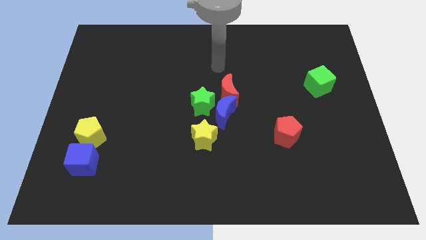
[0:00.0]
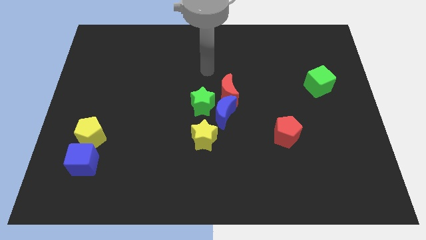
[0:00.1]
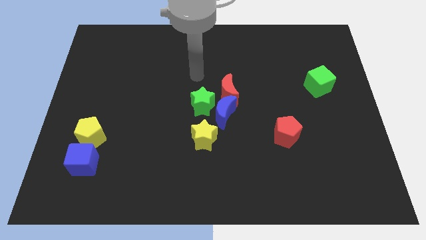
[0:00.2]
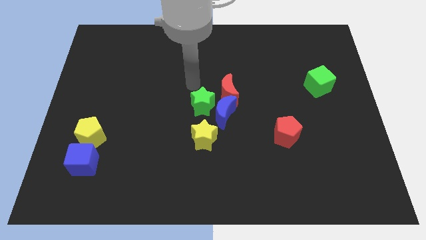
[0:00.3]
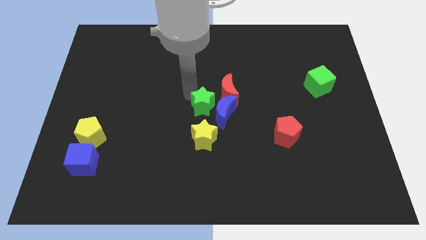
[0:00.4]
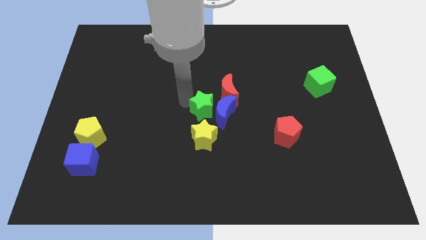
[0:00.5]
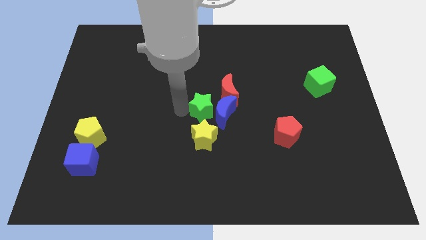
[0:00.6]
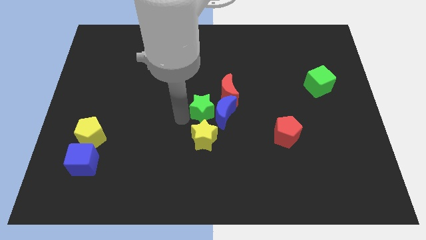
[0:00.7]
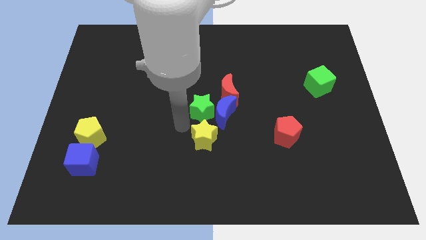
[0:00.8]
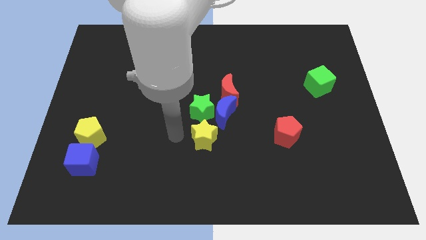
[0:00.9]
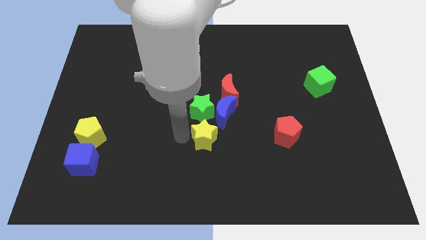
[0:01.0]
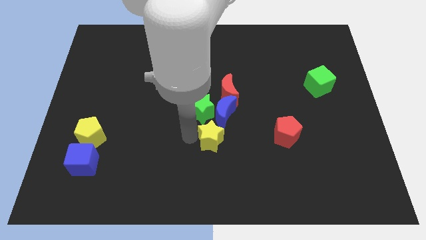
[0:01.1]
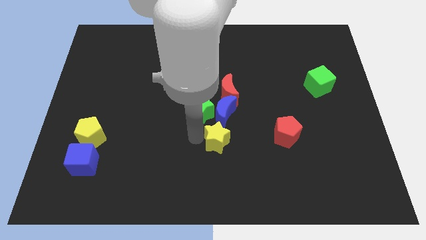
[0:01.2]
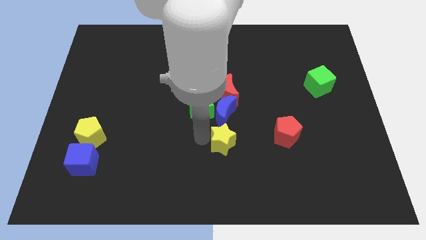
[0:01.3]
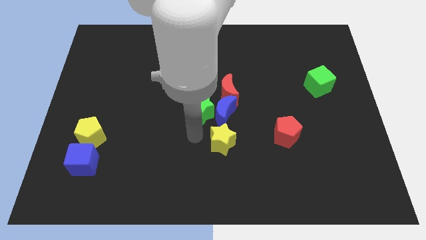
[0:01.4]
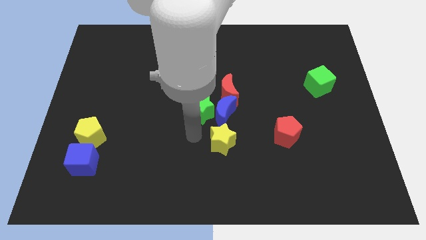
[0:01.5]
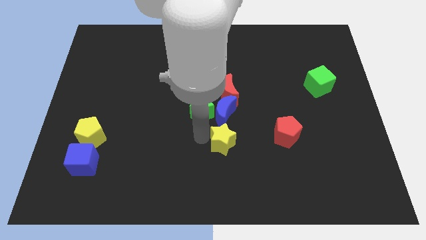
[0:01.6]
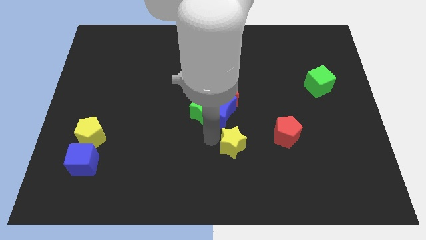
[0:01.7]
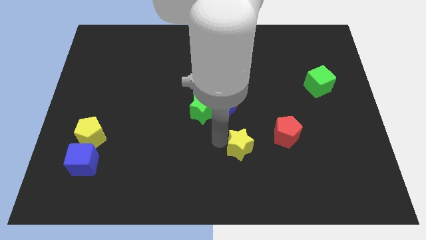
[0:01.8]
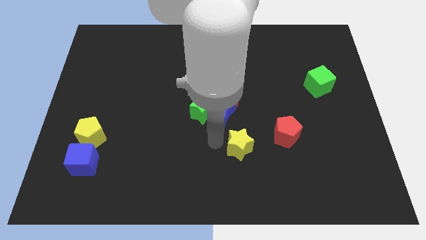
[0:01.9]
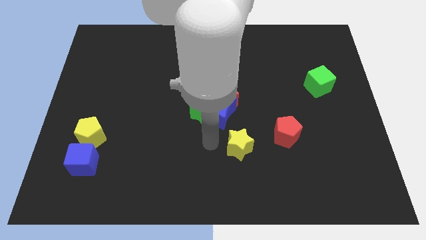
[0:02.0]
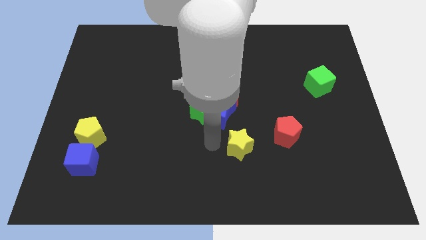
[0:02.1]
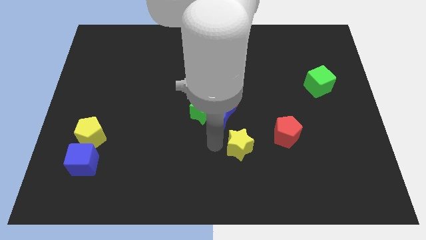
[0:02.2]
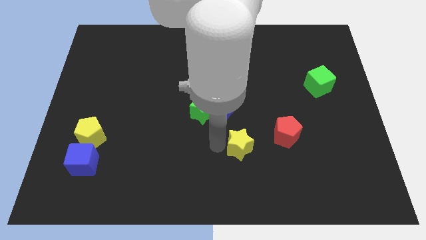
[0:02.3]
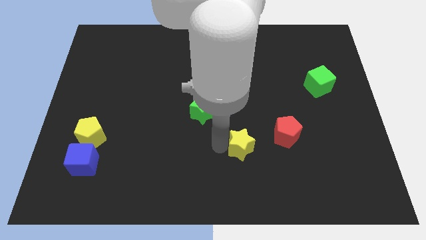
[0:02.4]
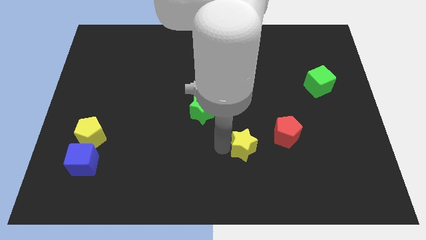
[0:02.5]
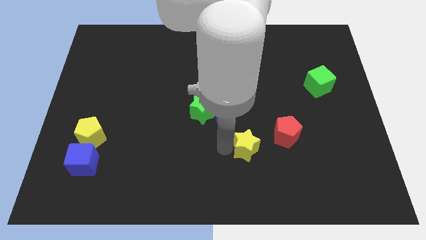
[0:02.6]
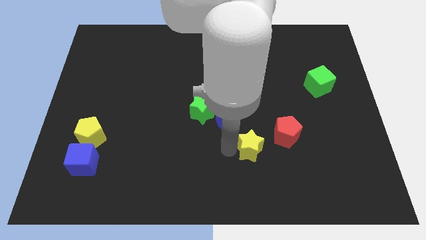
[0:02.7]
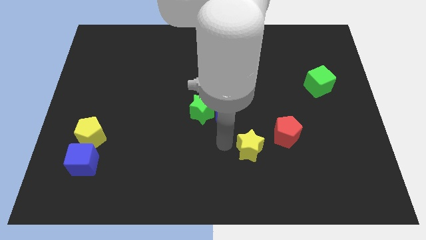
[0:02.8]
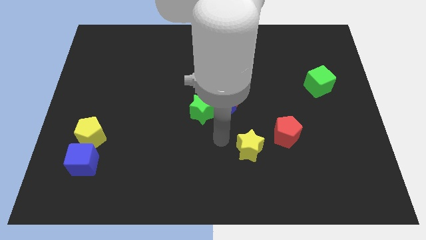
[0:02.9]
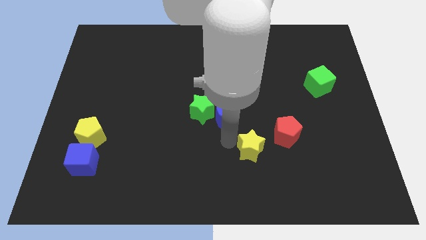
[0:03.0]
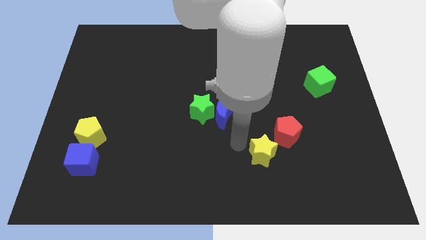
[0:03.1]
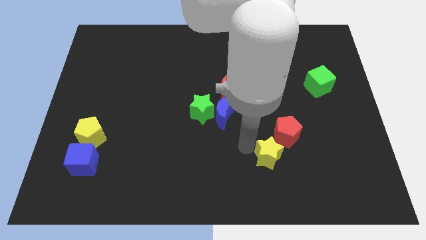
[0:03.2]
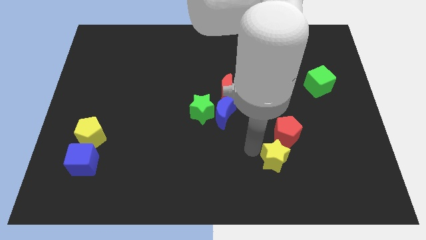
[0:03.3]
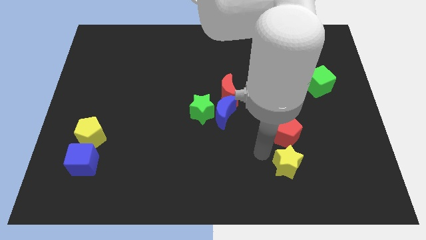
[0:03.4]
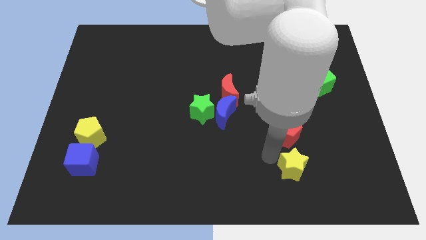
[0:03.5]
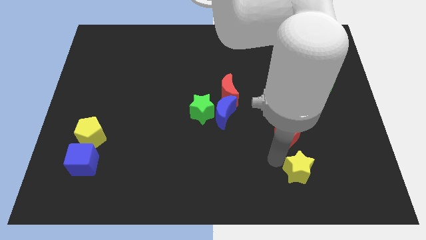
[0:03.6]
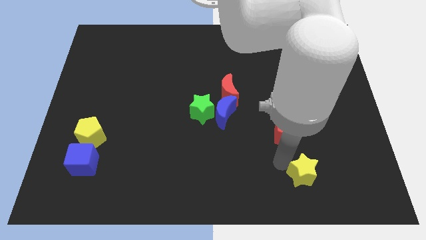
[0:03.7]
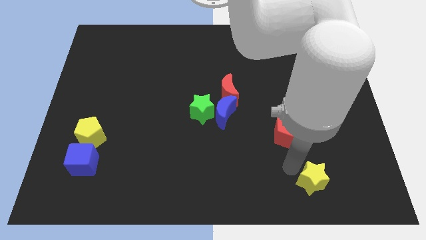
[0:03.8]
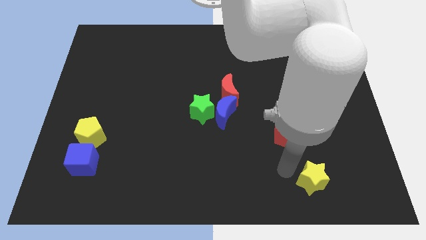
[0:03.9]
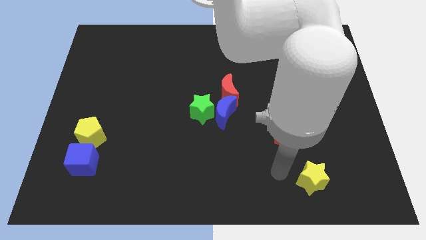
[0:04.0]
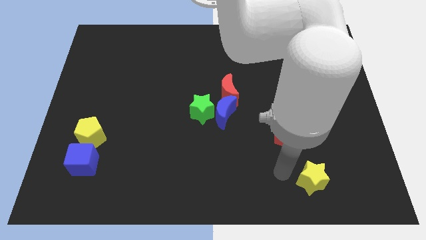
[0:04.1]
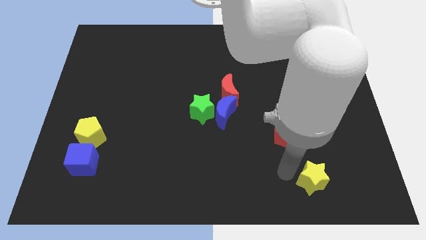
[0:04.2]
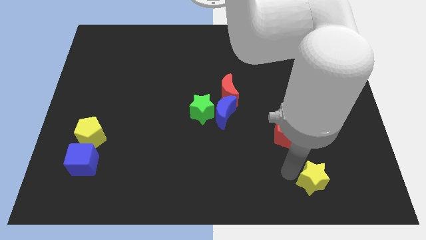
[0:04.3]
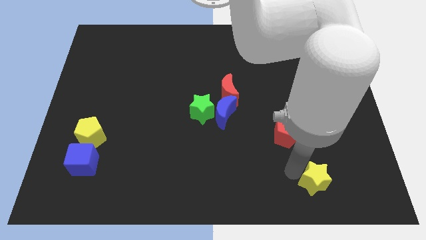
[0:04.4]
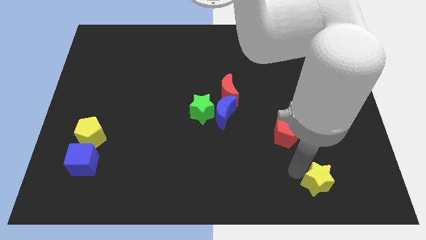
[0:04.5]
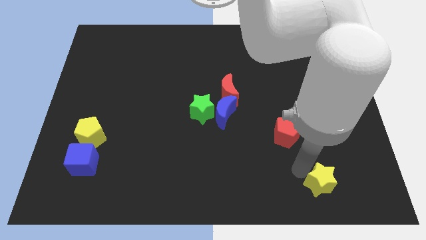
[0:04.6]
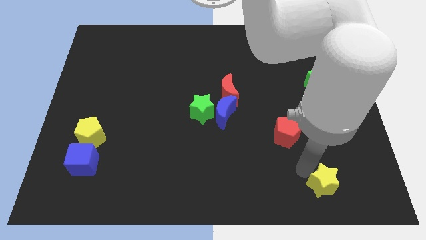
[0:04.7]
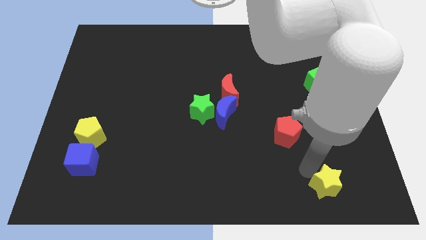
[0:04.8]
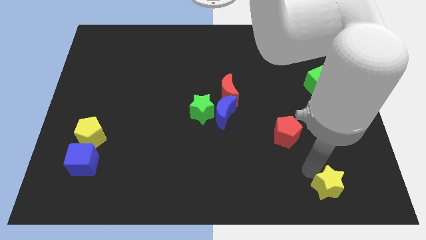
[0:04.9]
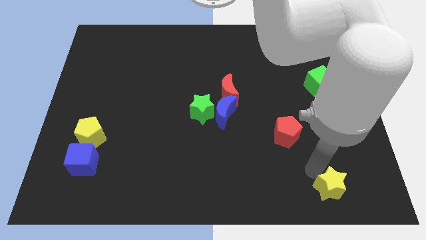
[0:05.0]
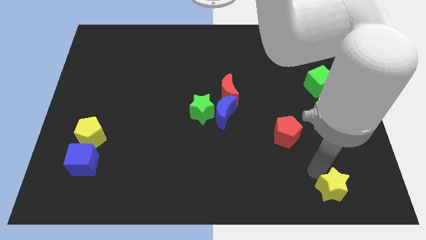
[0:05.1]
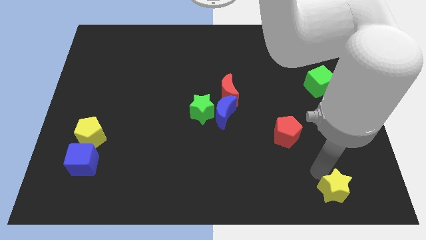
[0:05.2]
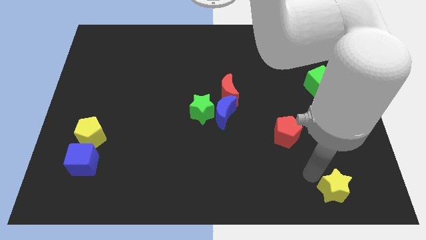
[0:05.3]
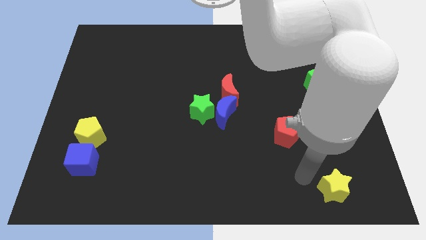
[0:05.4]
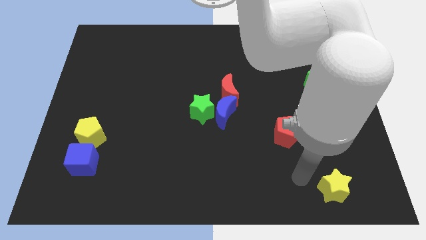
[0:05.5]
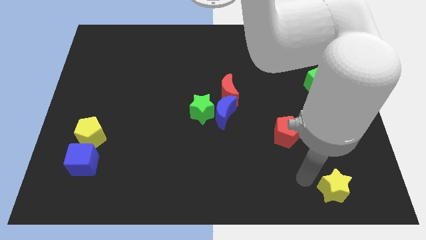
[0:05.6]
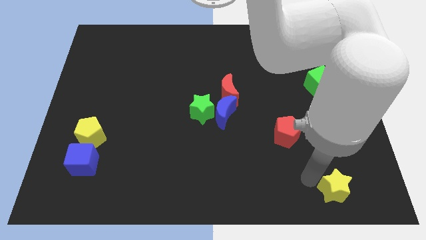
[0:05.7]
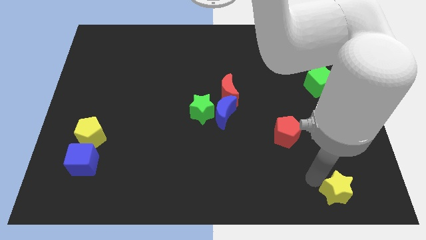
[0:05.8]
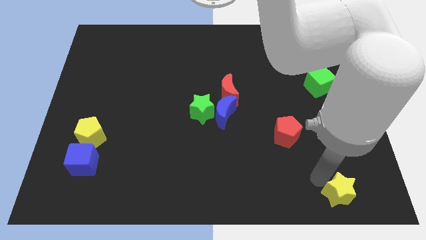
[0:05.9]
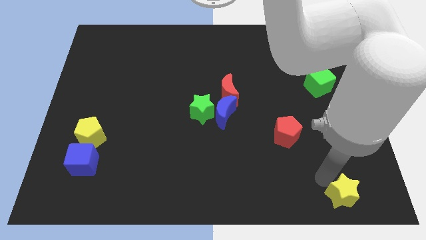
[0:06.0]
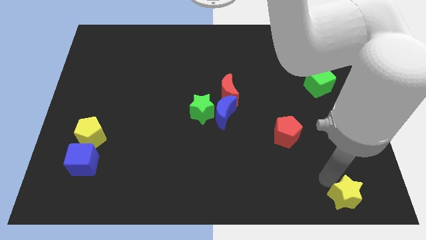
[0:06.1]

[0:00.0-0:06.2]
slide the yellow star to the bottom right of the board

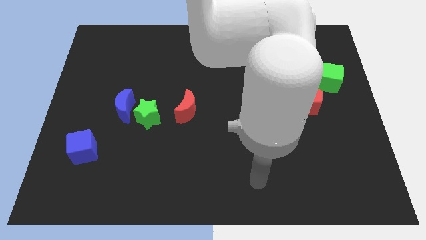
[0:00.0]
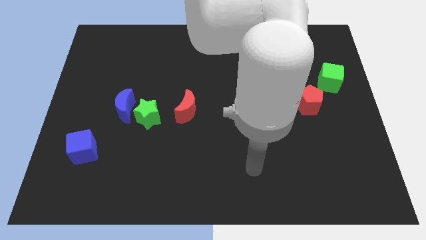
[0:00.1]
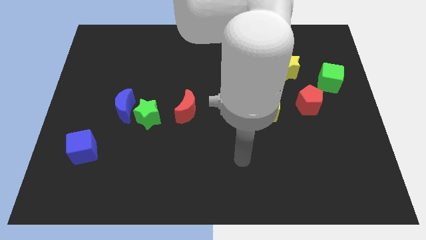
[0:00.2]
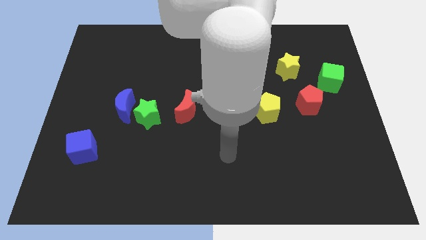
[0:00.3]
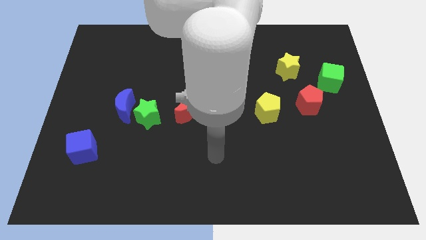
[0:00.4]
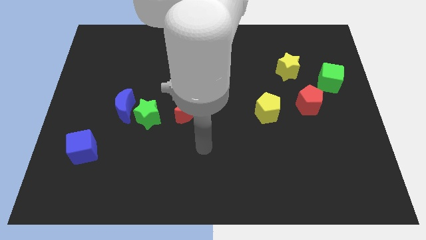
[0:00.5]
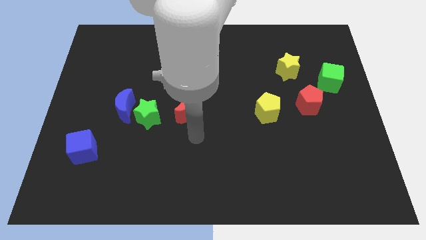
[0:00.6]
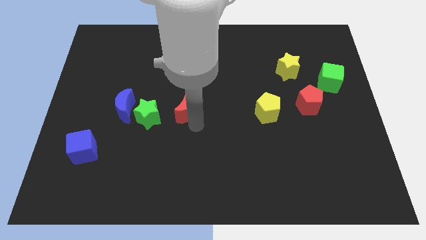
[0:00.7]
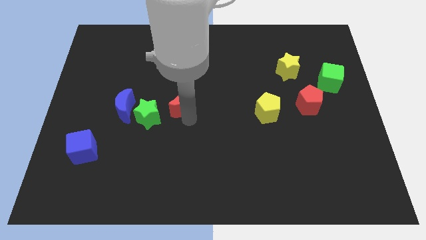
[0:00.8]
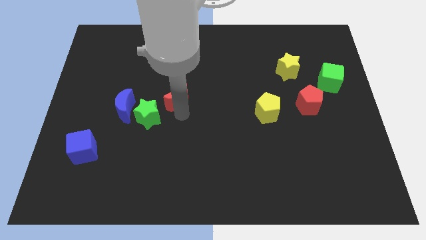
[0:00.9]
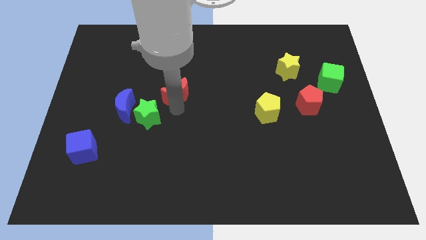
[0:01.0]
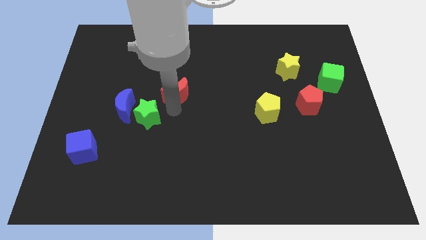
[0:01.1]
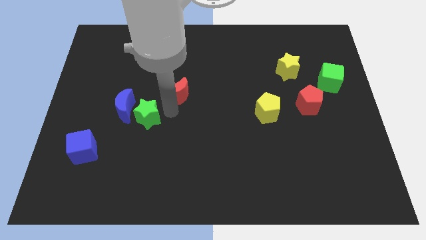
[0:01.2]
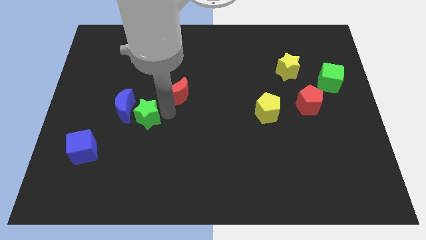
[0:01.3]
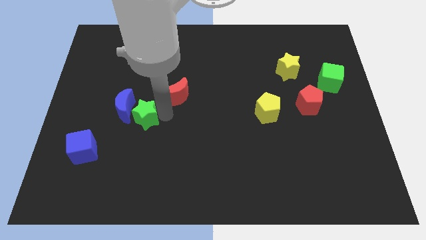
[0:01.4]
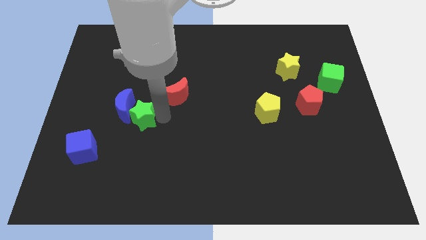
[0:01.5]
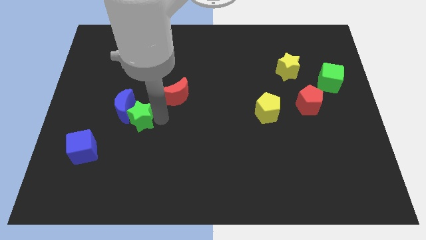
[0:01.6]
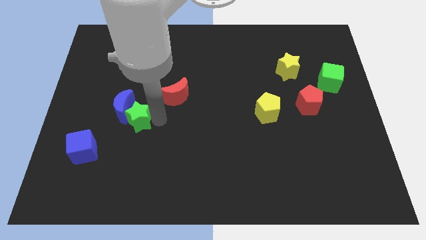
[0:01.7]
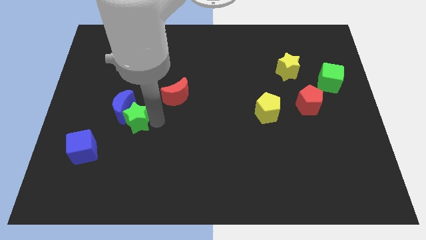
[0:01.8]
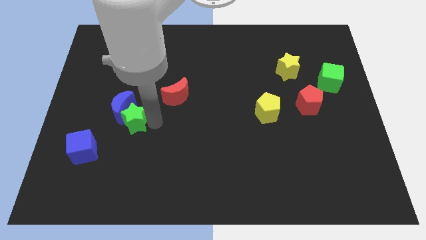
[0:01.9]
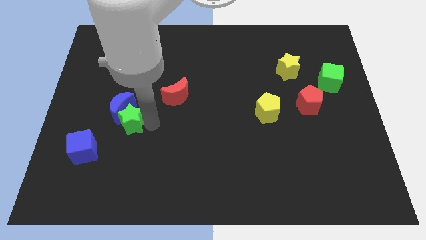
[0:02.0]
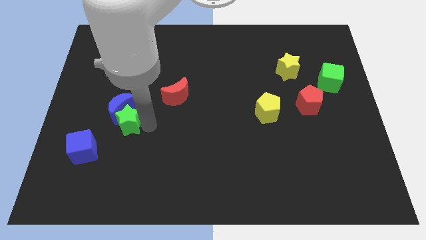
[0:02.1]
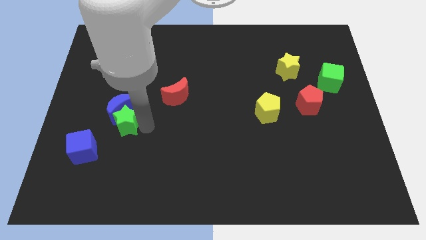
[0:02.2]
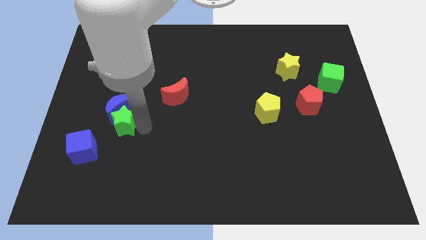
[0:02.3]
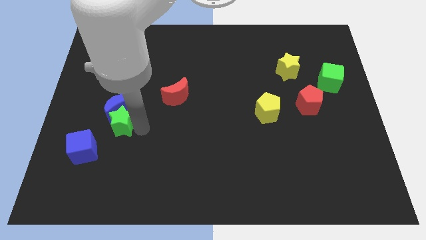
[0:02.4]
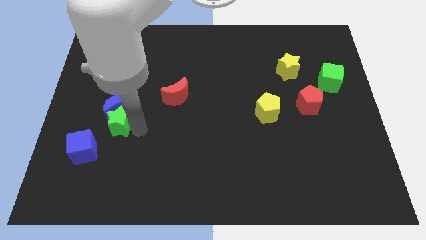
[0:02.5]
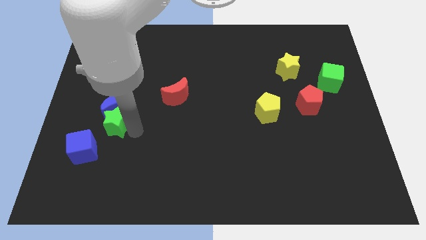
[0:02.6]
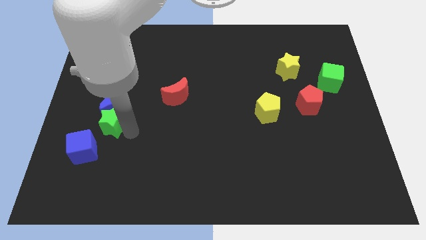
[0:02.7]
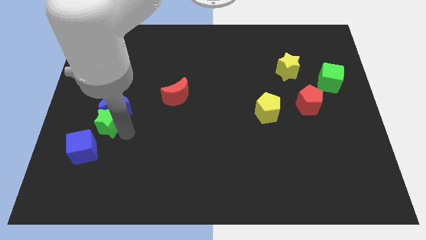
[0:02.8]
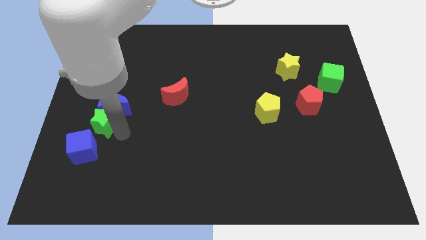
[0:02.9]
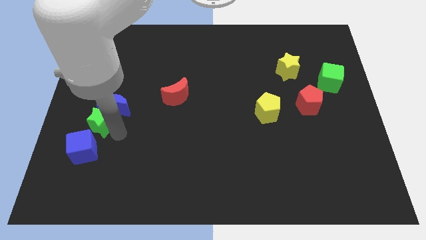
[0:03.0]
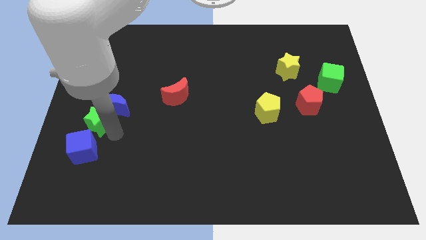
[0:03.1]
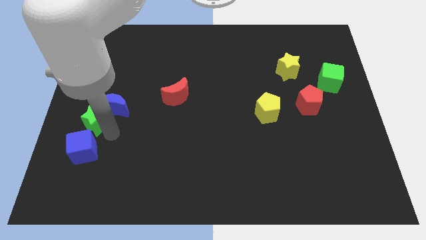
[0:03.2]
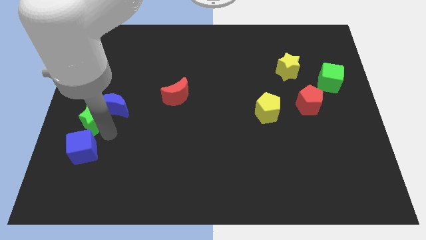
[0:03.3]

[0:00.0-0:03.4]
move the green star to the left side
